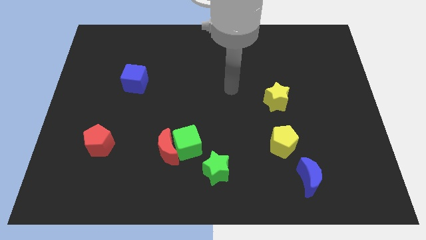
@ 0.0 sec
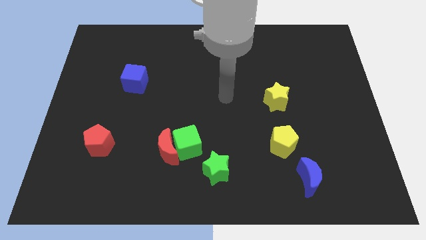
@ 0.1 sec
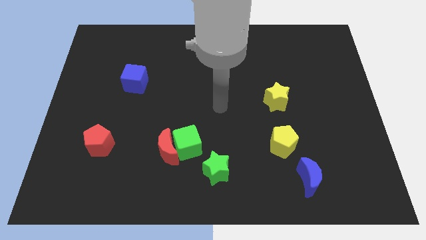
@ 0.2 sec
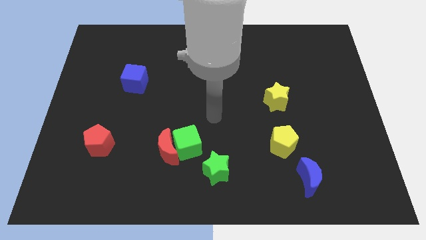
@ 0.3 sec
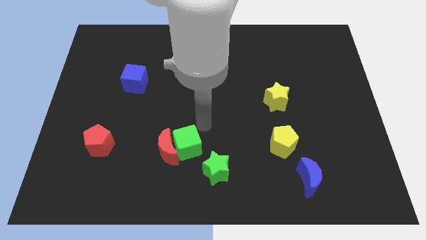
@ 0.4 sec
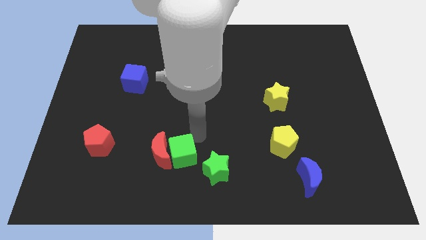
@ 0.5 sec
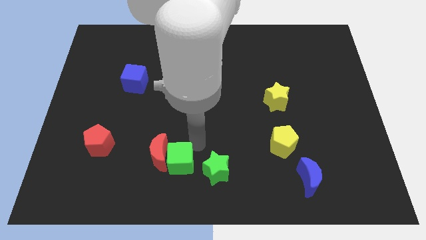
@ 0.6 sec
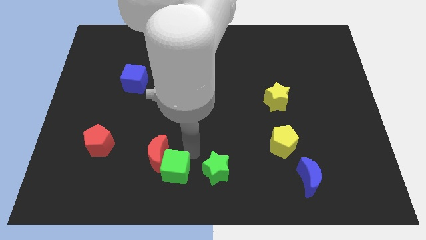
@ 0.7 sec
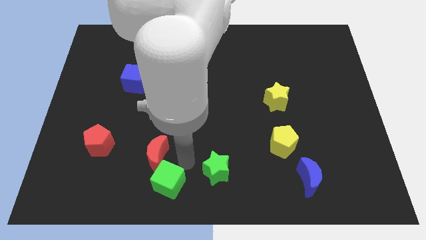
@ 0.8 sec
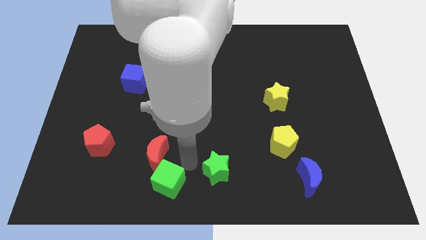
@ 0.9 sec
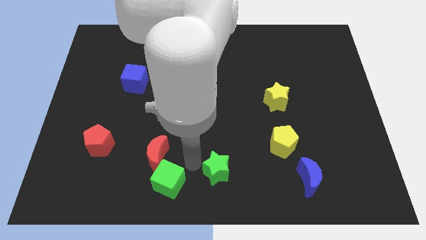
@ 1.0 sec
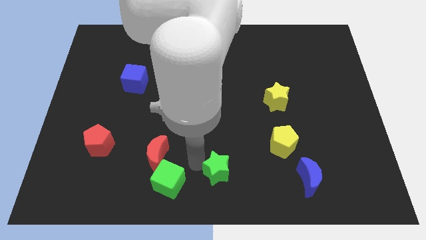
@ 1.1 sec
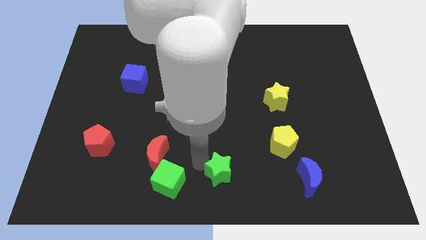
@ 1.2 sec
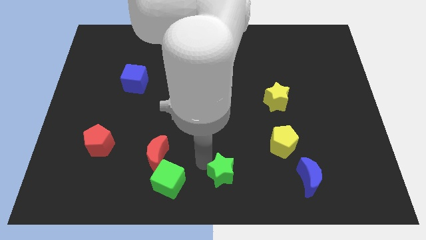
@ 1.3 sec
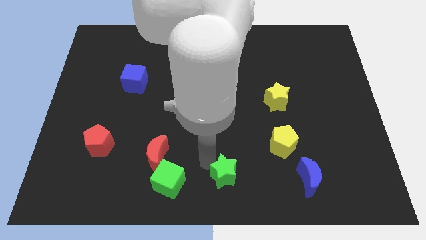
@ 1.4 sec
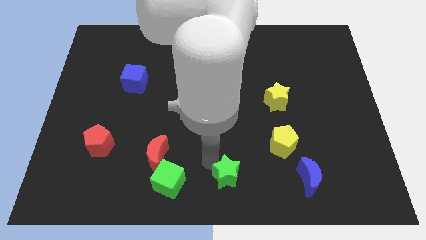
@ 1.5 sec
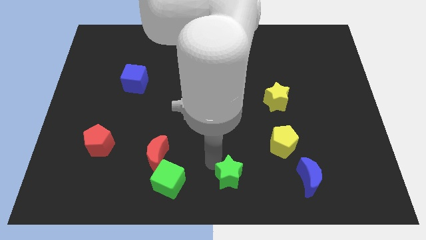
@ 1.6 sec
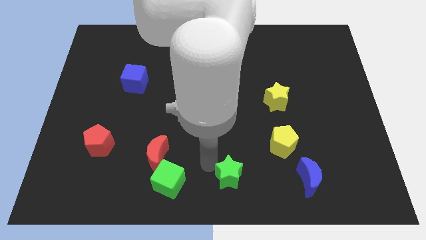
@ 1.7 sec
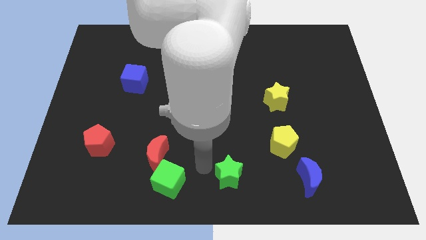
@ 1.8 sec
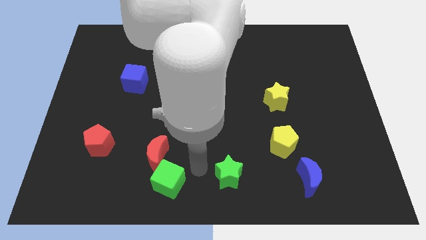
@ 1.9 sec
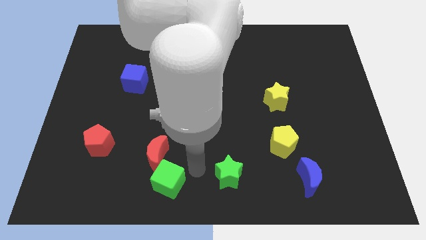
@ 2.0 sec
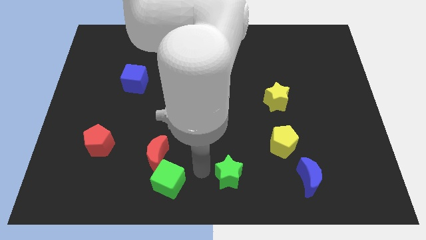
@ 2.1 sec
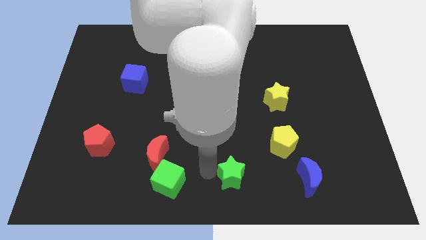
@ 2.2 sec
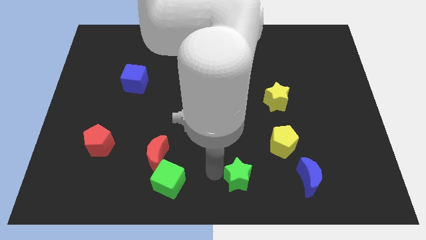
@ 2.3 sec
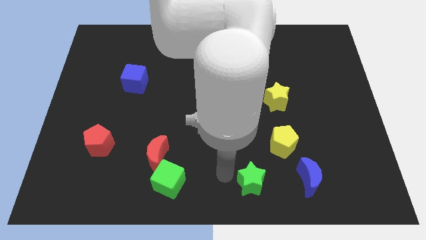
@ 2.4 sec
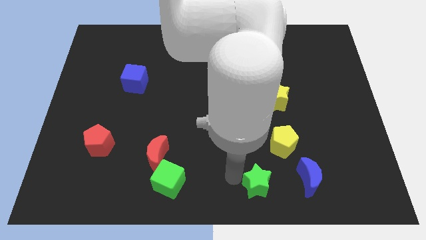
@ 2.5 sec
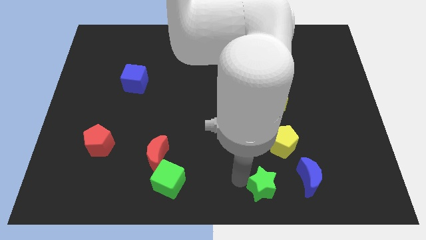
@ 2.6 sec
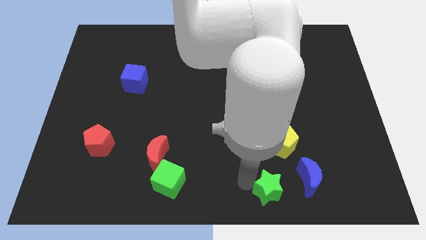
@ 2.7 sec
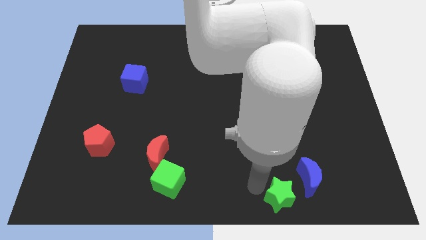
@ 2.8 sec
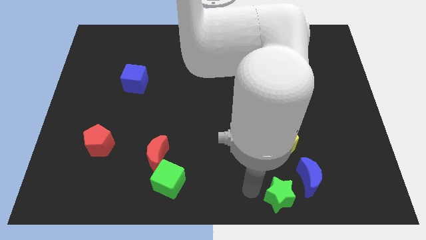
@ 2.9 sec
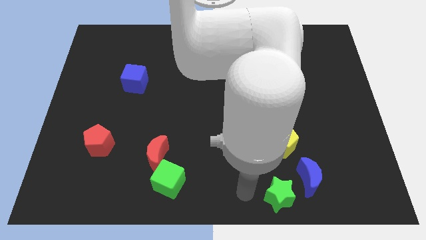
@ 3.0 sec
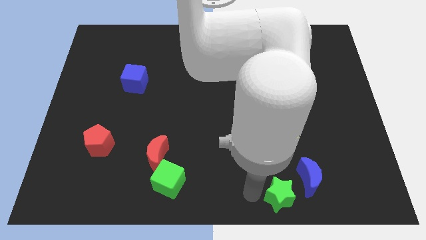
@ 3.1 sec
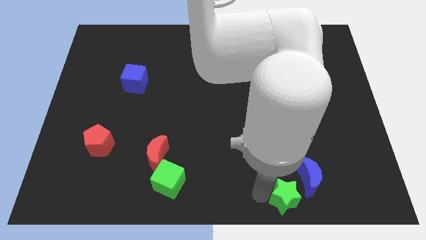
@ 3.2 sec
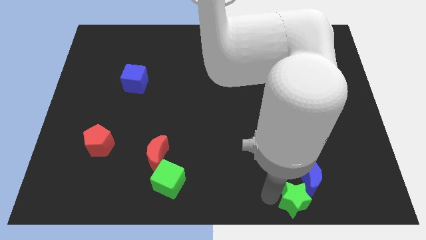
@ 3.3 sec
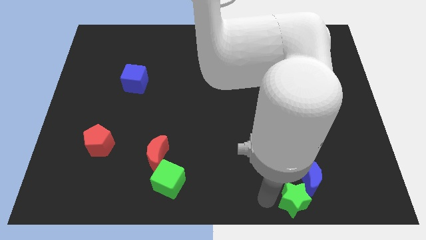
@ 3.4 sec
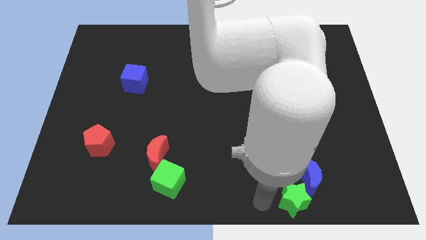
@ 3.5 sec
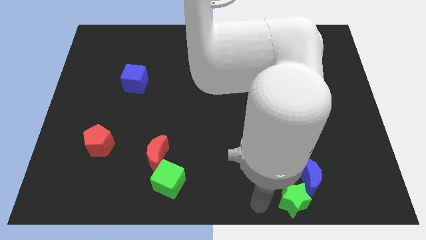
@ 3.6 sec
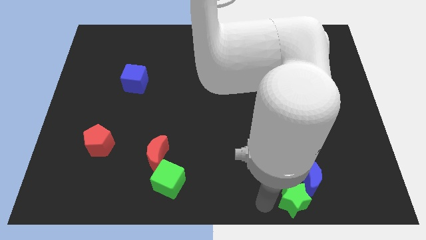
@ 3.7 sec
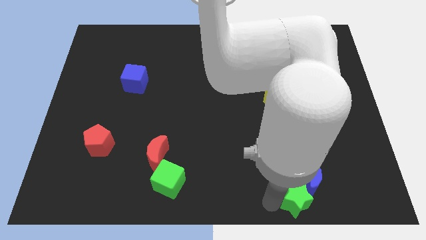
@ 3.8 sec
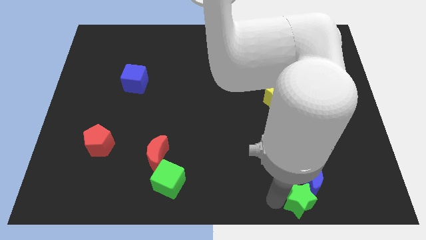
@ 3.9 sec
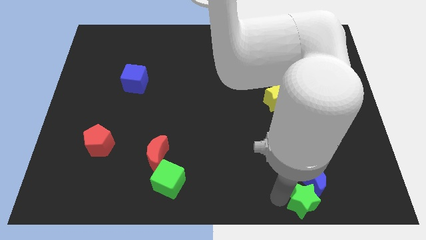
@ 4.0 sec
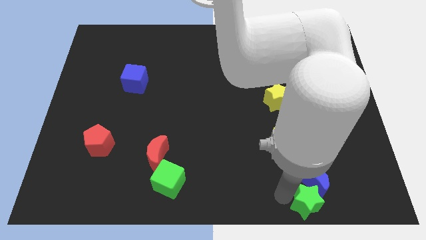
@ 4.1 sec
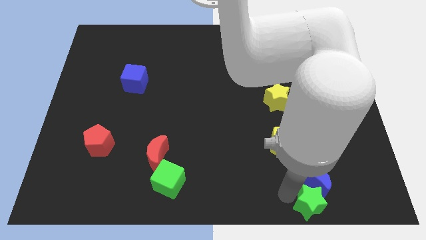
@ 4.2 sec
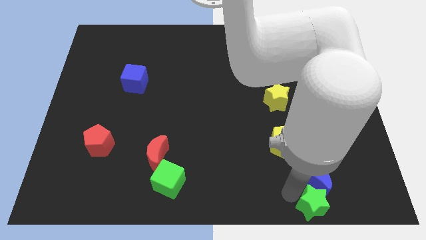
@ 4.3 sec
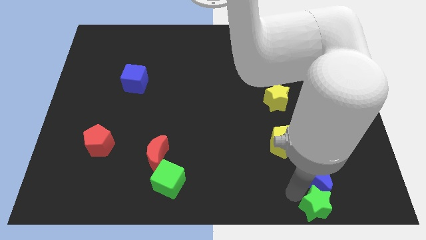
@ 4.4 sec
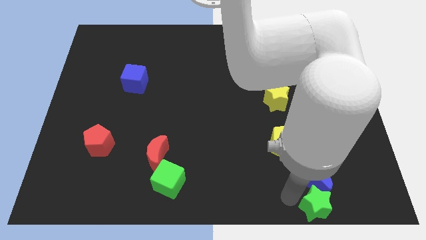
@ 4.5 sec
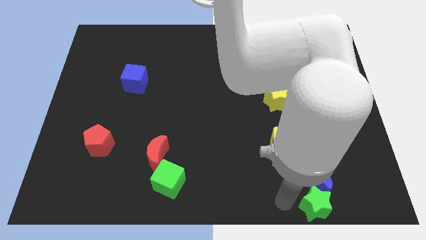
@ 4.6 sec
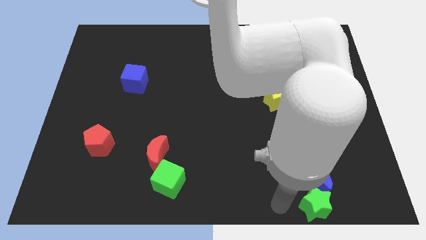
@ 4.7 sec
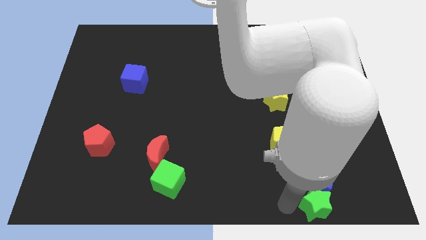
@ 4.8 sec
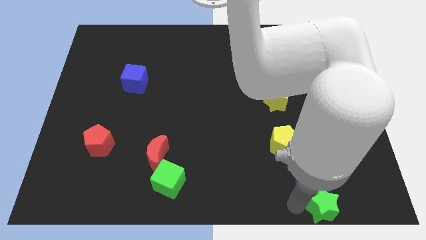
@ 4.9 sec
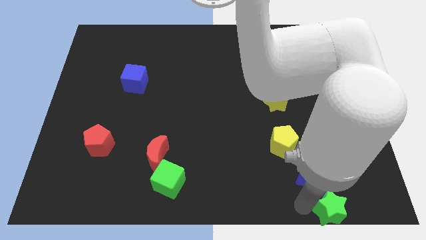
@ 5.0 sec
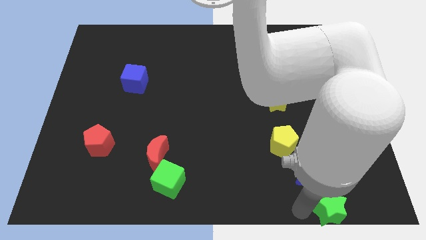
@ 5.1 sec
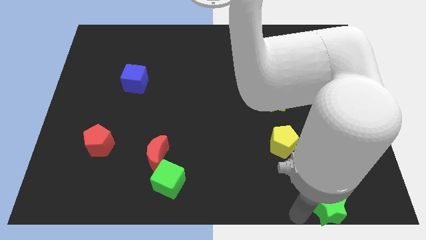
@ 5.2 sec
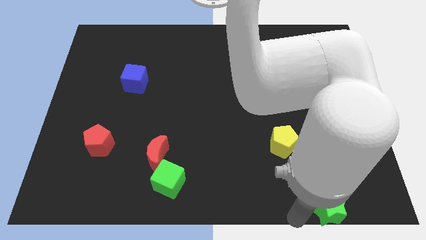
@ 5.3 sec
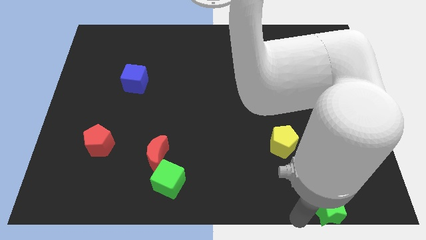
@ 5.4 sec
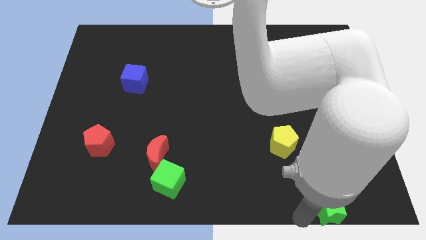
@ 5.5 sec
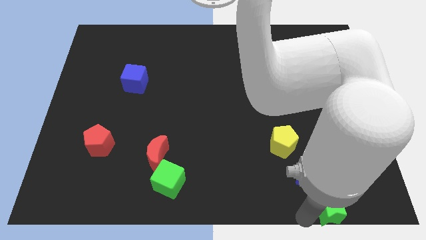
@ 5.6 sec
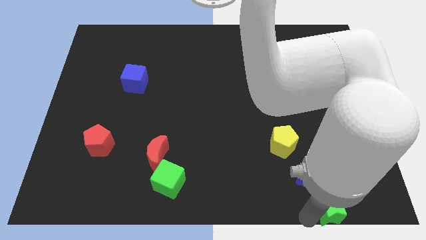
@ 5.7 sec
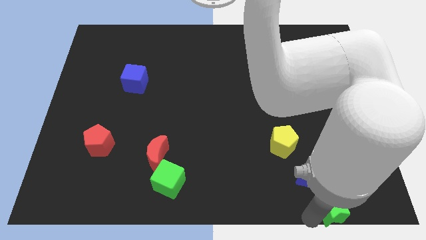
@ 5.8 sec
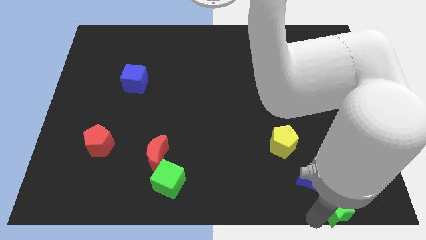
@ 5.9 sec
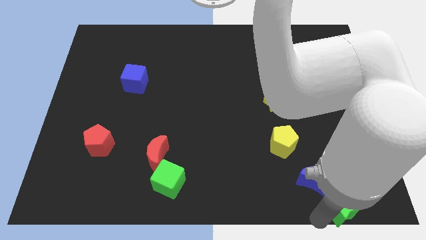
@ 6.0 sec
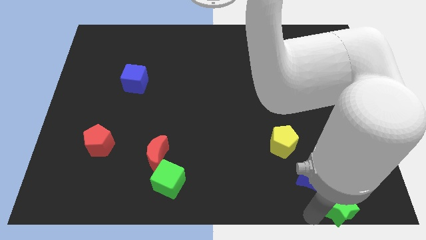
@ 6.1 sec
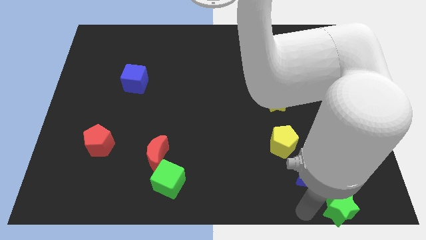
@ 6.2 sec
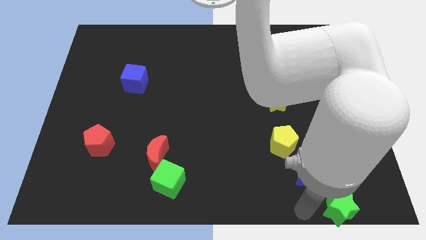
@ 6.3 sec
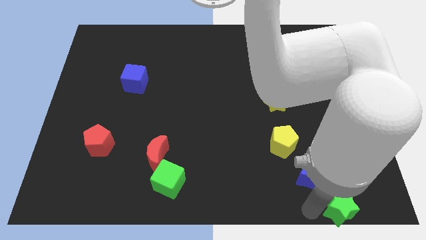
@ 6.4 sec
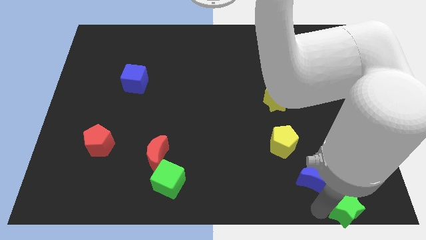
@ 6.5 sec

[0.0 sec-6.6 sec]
put the green star to the bottom right
